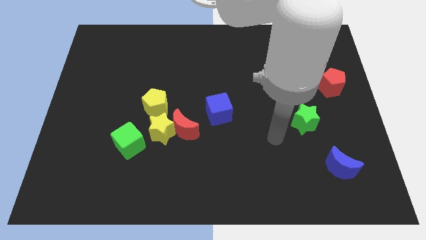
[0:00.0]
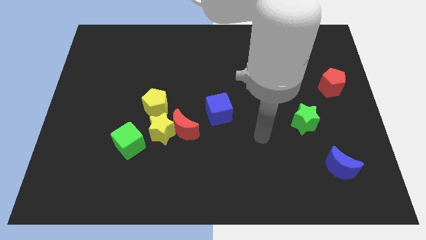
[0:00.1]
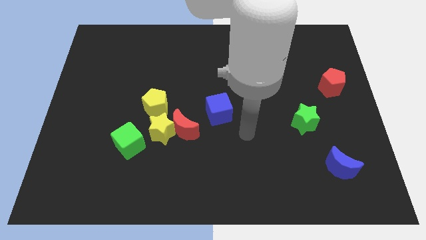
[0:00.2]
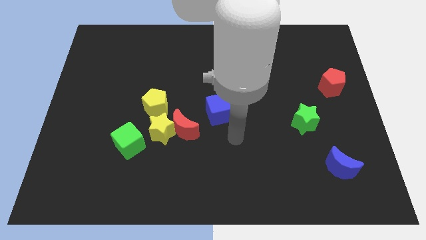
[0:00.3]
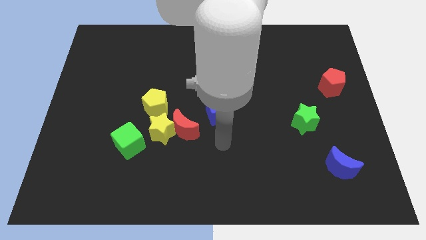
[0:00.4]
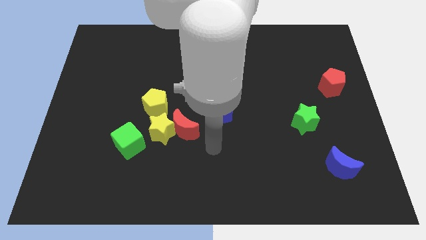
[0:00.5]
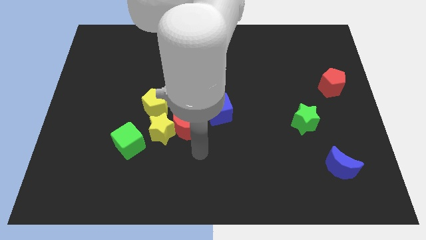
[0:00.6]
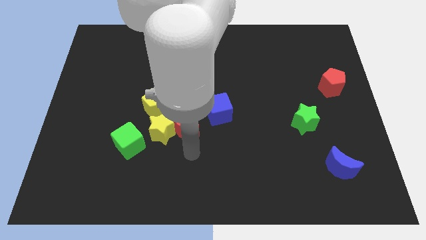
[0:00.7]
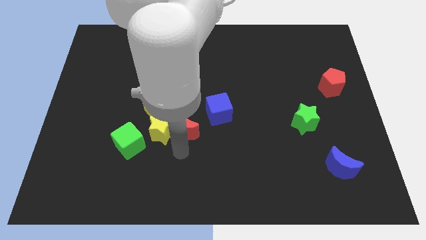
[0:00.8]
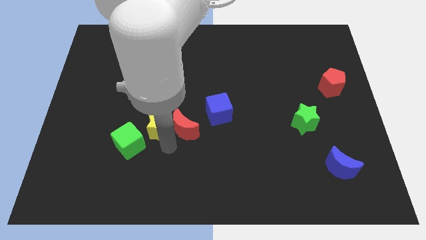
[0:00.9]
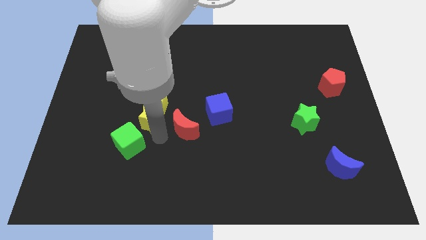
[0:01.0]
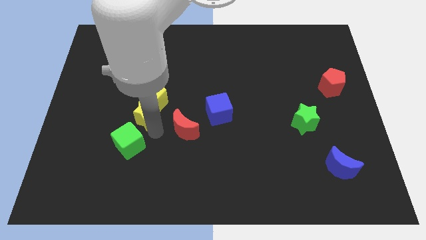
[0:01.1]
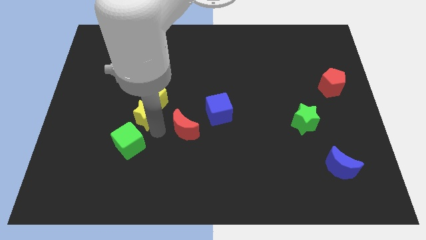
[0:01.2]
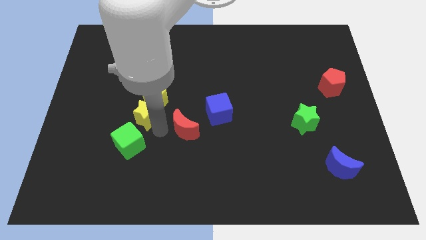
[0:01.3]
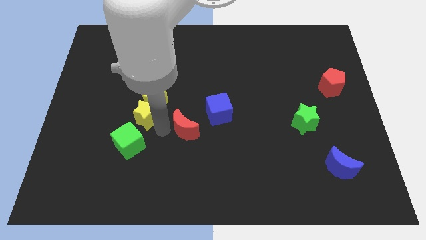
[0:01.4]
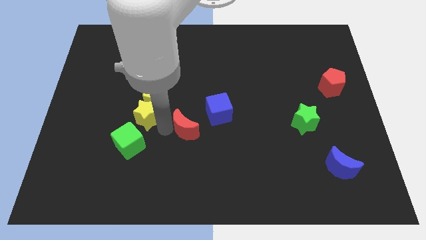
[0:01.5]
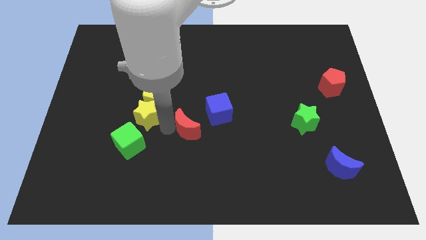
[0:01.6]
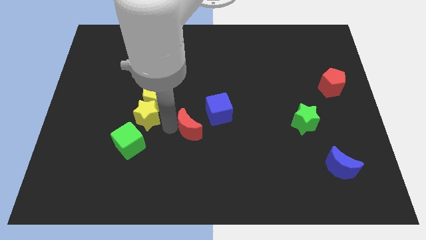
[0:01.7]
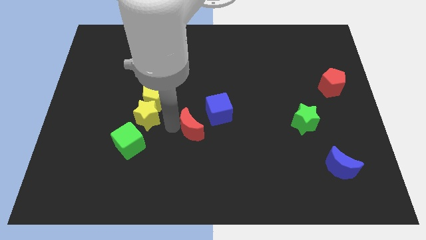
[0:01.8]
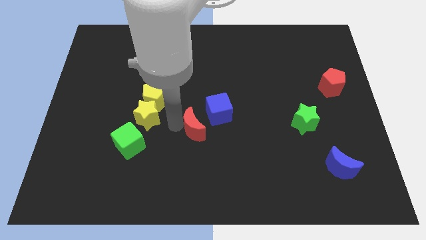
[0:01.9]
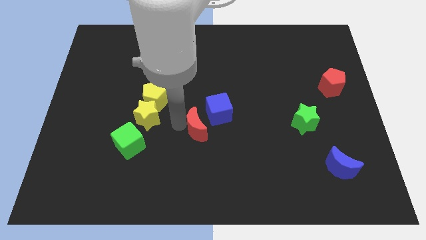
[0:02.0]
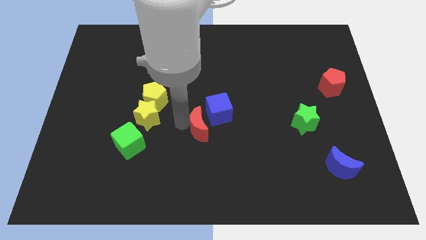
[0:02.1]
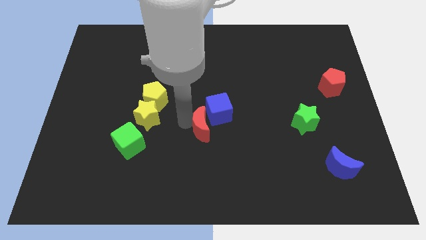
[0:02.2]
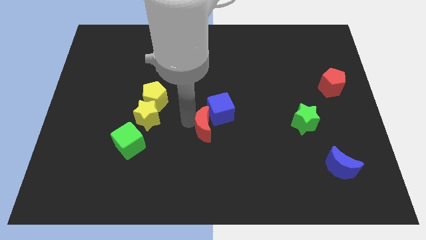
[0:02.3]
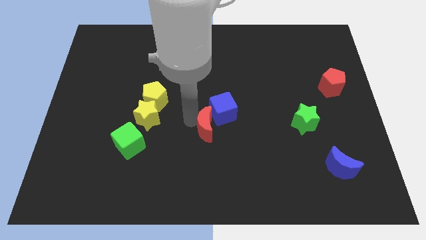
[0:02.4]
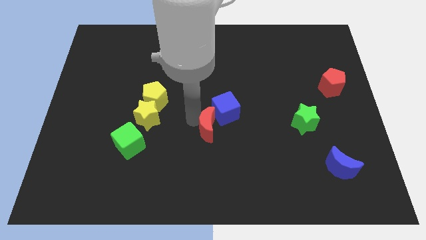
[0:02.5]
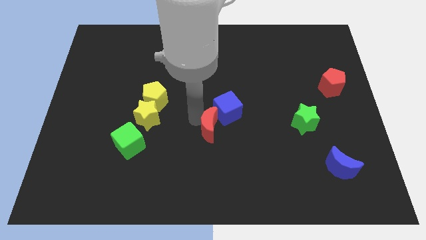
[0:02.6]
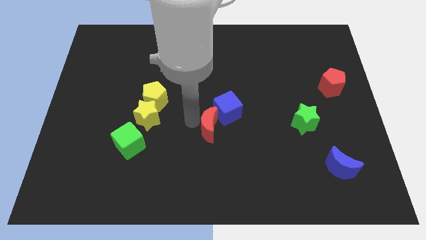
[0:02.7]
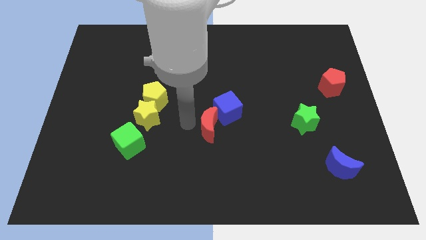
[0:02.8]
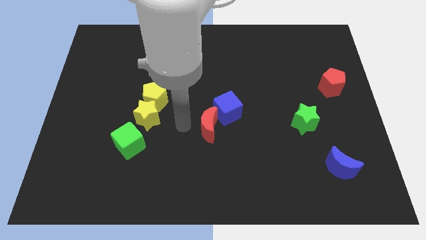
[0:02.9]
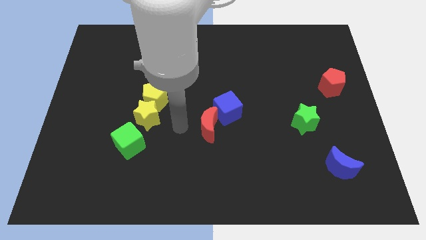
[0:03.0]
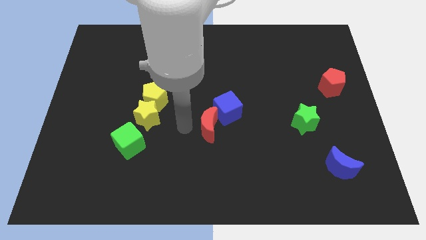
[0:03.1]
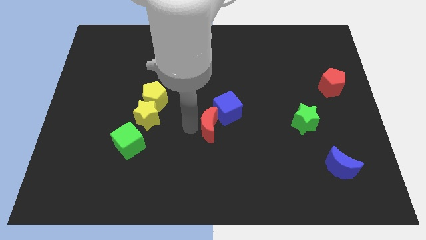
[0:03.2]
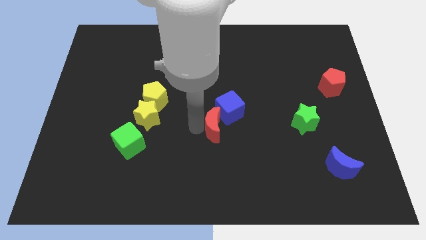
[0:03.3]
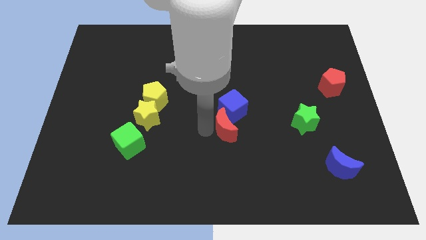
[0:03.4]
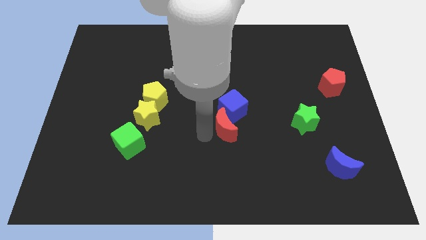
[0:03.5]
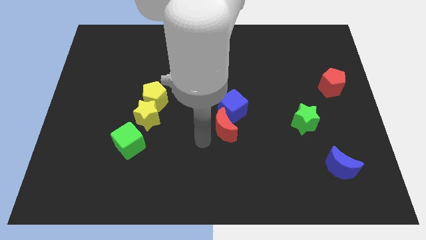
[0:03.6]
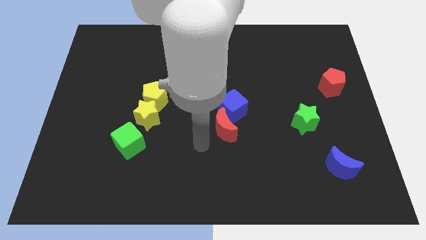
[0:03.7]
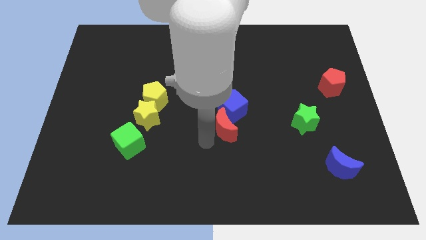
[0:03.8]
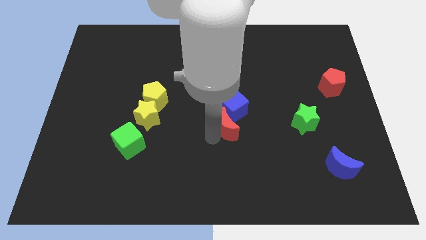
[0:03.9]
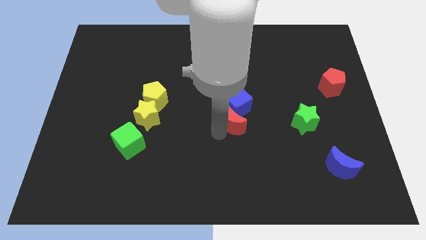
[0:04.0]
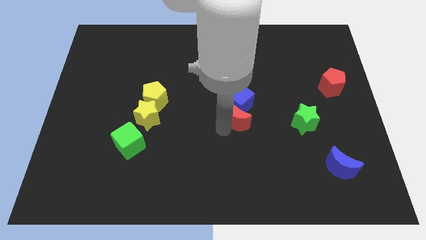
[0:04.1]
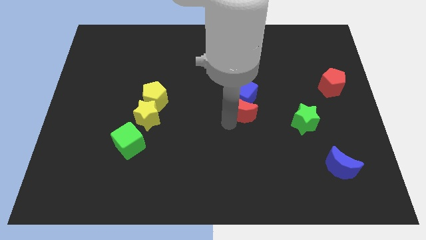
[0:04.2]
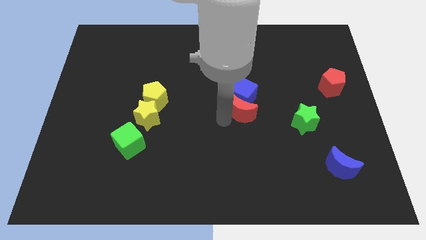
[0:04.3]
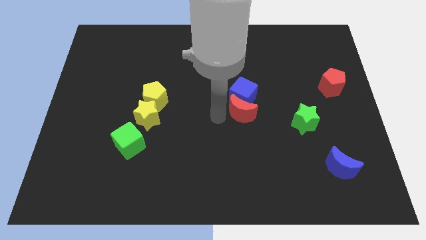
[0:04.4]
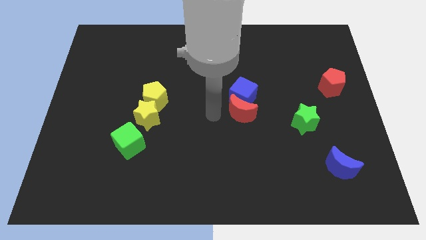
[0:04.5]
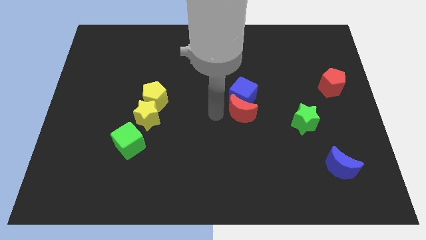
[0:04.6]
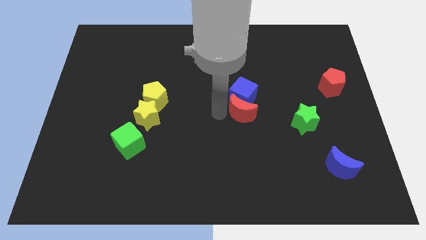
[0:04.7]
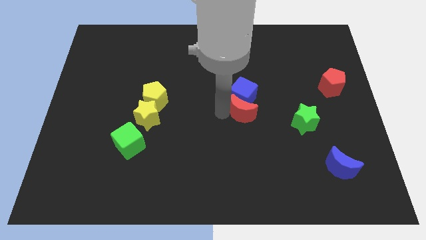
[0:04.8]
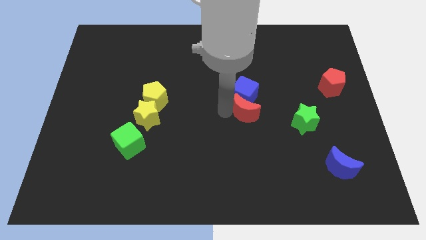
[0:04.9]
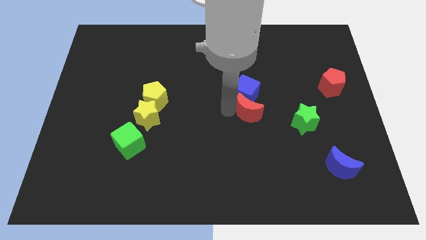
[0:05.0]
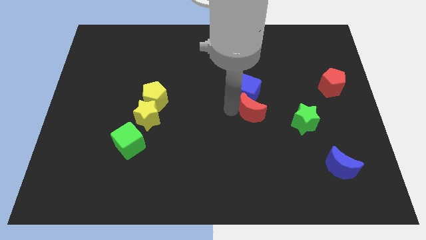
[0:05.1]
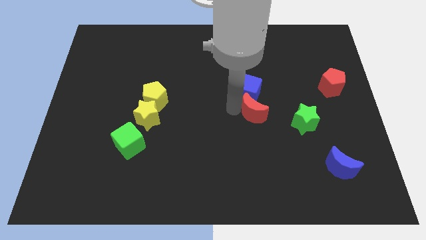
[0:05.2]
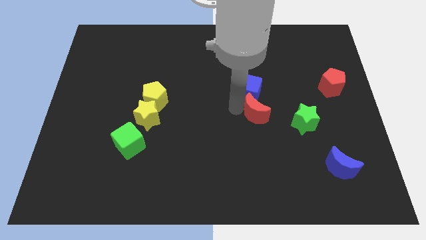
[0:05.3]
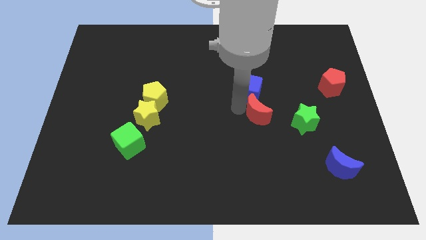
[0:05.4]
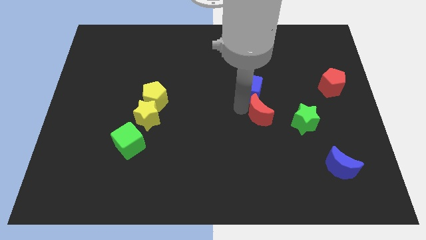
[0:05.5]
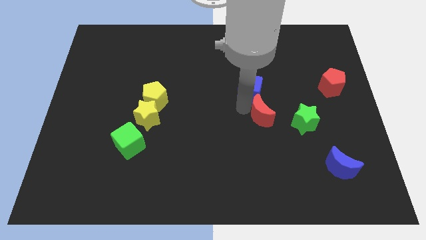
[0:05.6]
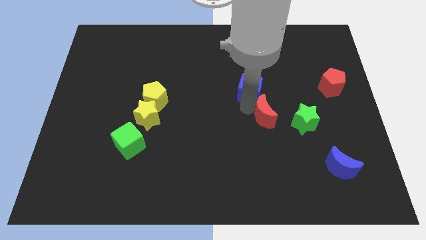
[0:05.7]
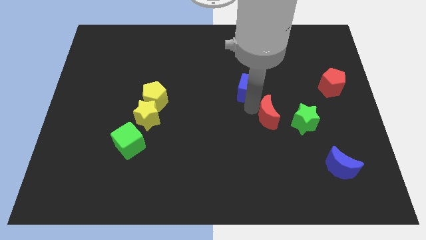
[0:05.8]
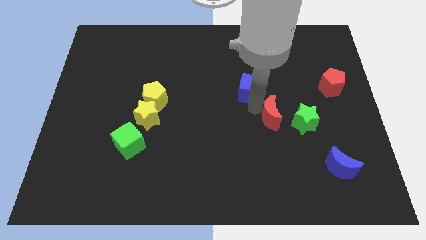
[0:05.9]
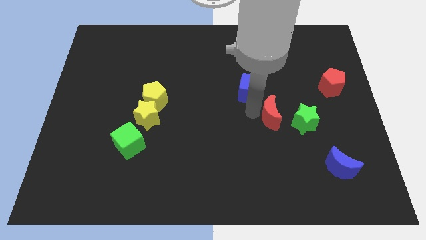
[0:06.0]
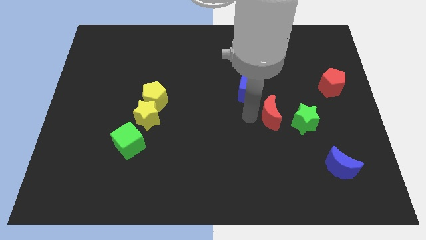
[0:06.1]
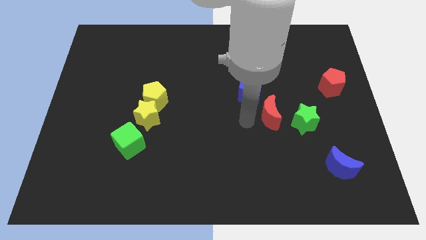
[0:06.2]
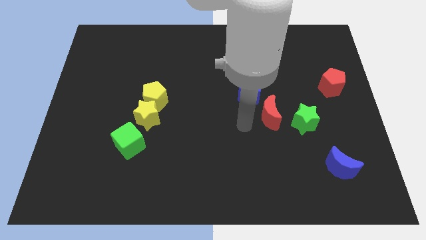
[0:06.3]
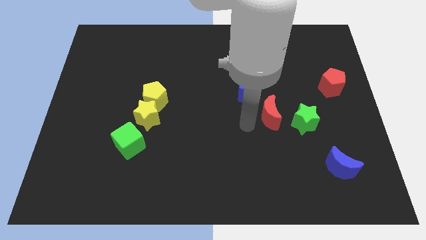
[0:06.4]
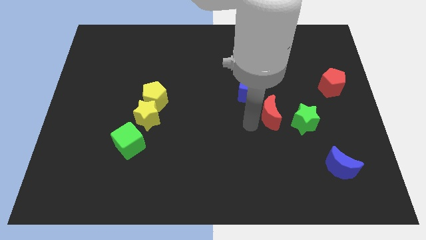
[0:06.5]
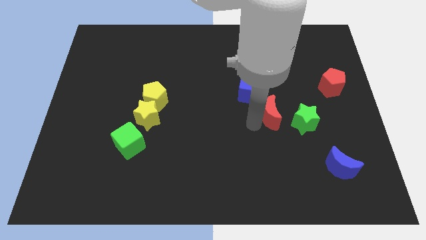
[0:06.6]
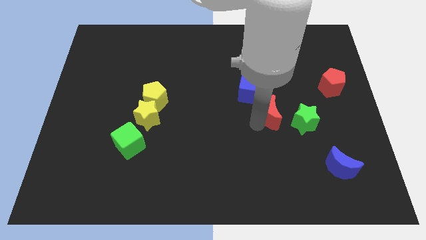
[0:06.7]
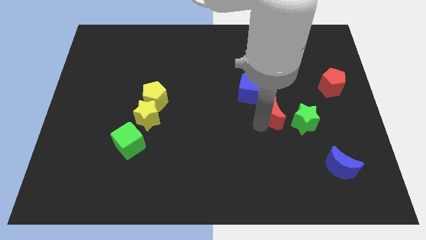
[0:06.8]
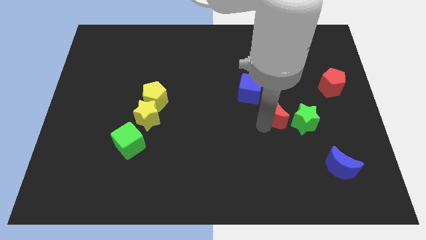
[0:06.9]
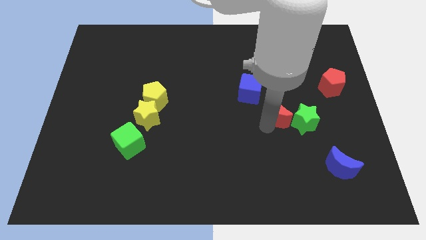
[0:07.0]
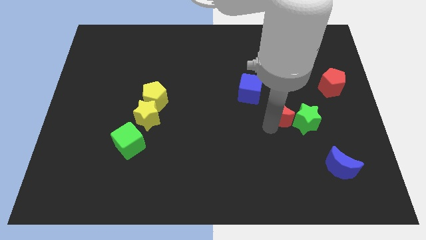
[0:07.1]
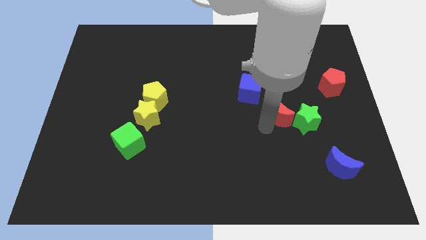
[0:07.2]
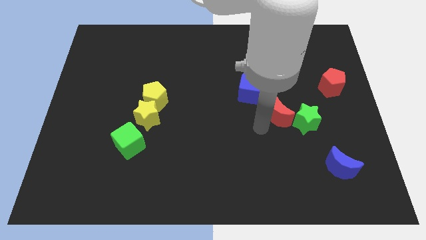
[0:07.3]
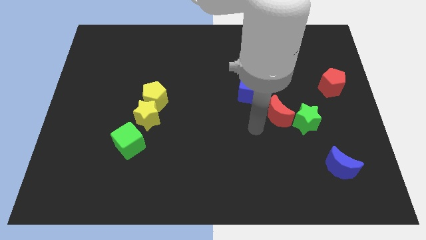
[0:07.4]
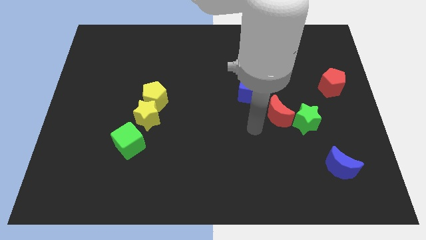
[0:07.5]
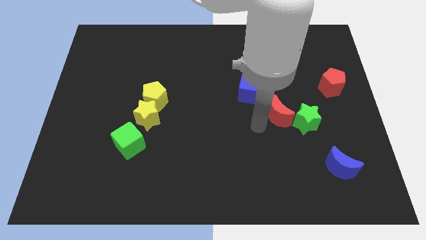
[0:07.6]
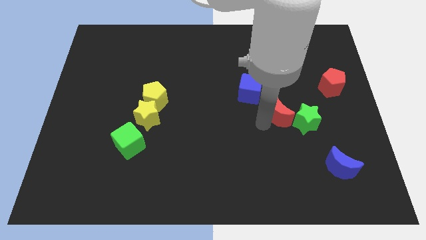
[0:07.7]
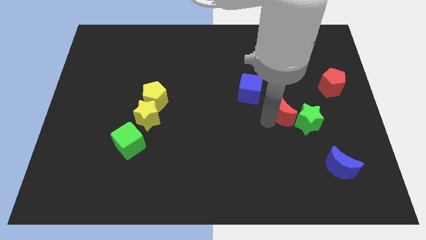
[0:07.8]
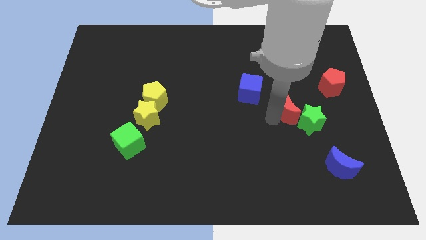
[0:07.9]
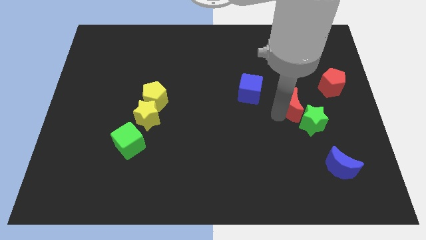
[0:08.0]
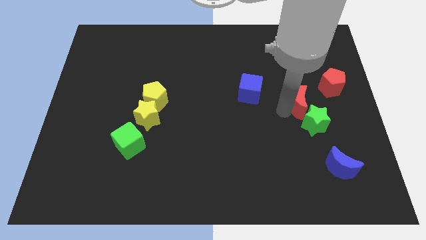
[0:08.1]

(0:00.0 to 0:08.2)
slide the red moon to the bottom left of the red pentagon
